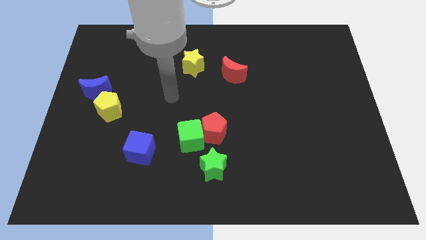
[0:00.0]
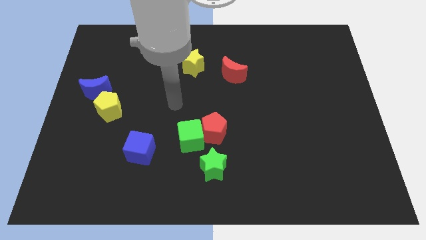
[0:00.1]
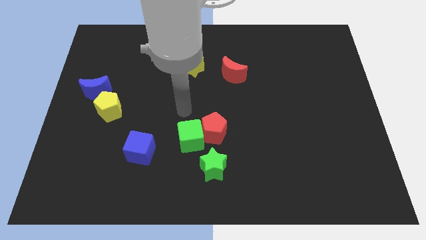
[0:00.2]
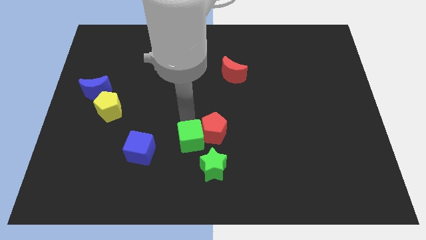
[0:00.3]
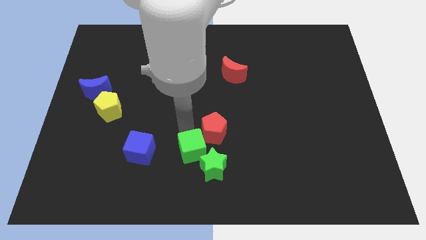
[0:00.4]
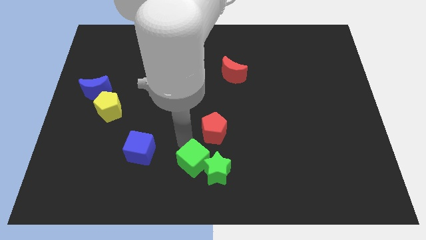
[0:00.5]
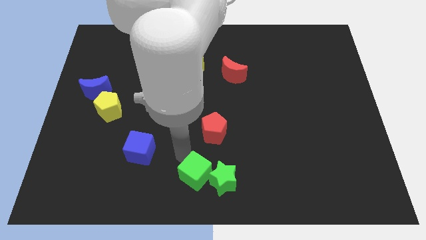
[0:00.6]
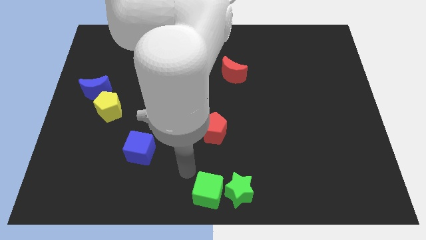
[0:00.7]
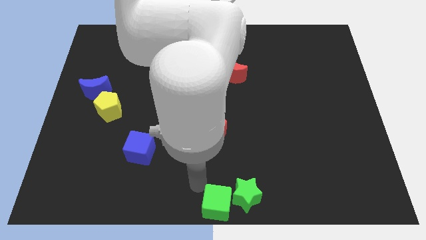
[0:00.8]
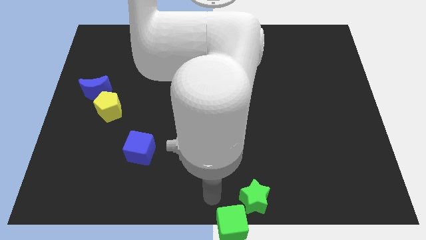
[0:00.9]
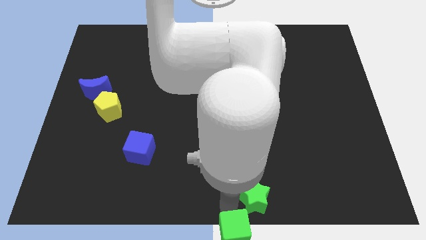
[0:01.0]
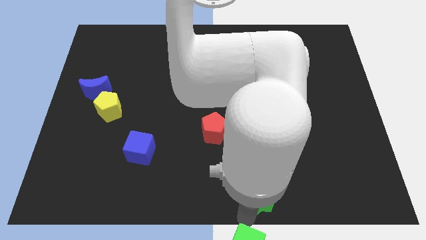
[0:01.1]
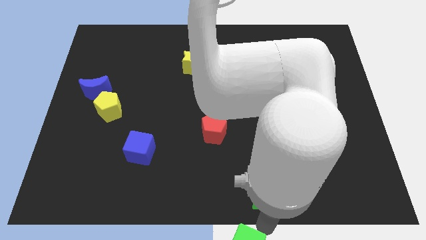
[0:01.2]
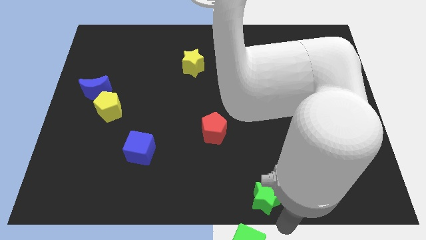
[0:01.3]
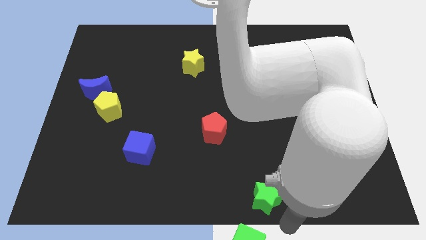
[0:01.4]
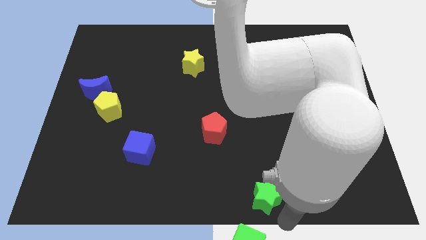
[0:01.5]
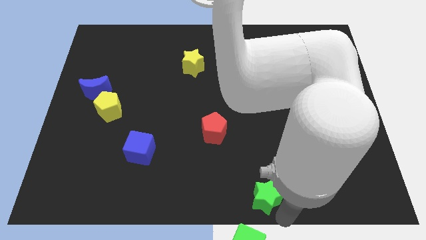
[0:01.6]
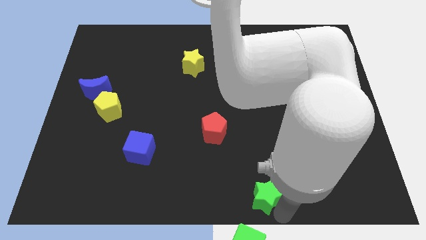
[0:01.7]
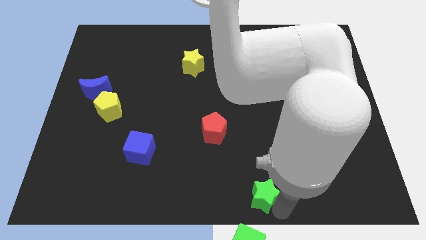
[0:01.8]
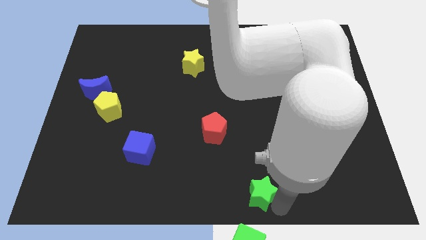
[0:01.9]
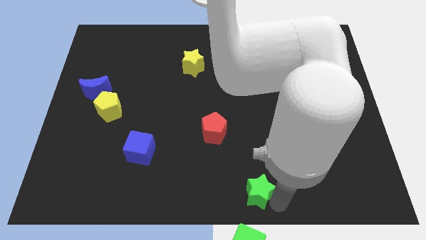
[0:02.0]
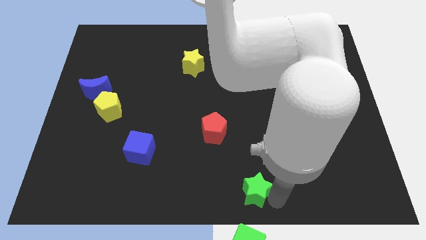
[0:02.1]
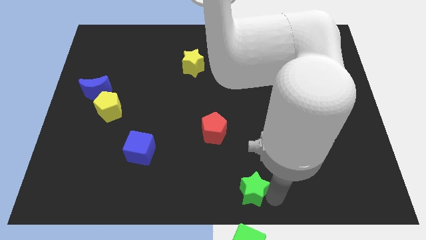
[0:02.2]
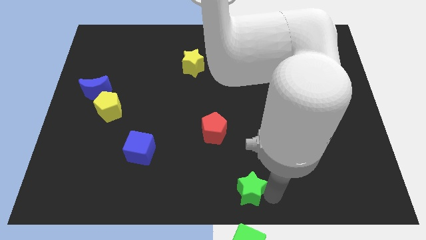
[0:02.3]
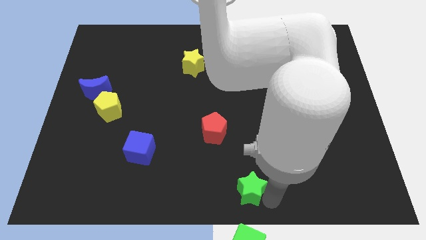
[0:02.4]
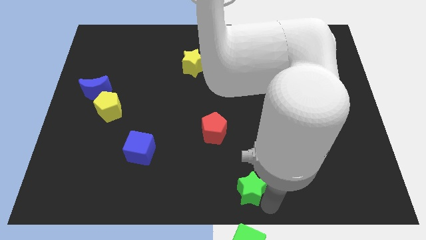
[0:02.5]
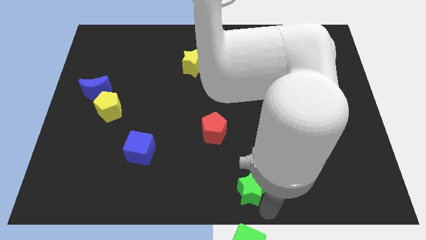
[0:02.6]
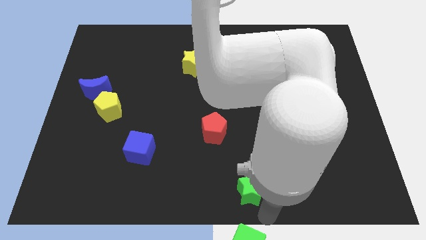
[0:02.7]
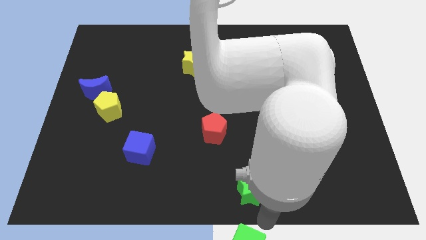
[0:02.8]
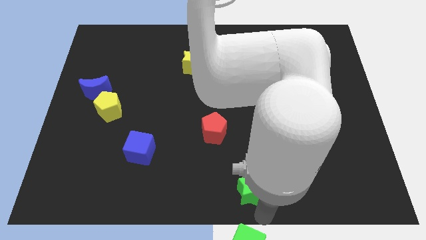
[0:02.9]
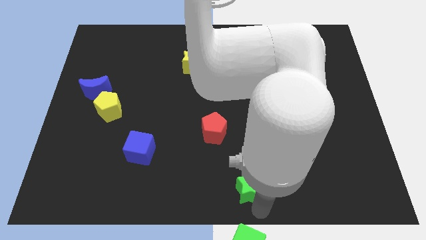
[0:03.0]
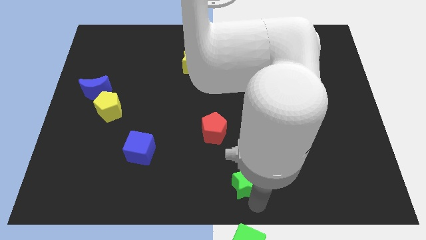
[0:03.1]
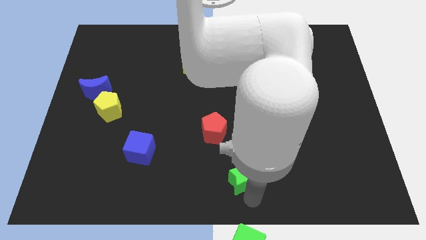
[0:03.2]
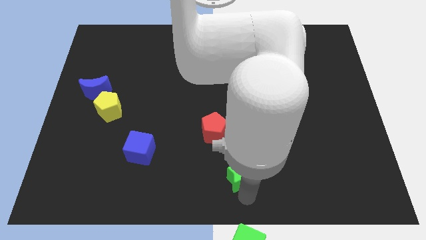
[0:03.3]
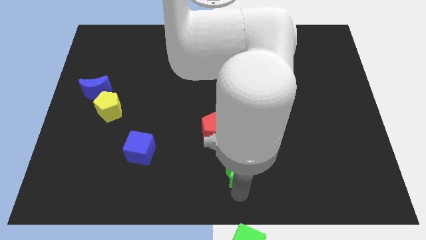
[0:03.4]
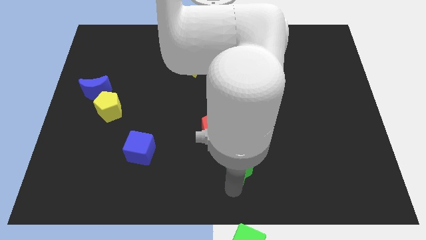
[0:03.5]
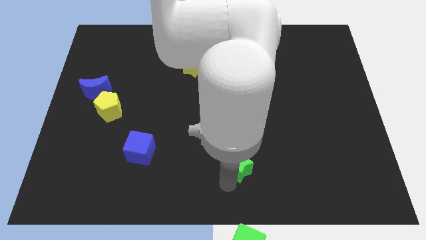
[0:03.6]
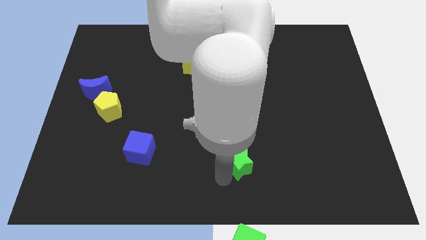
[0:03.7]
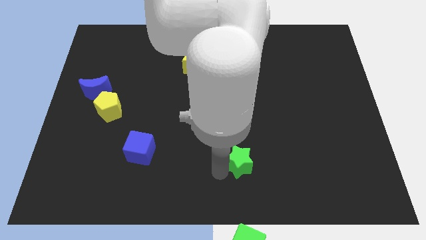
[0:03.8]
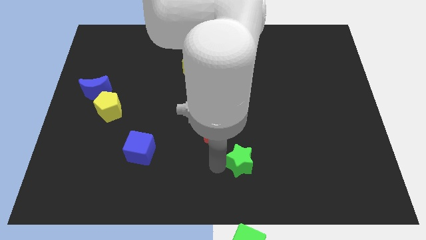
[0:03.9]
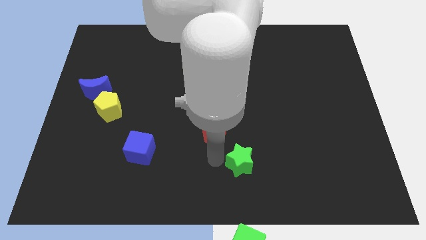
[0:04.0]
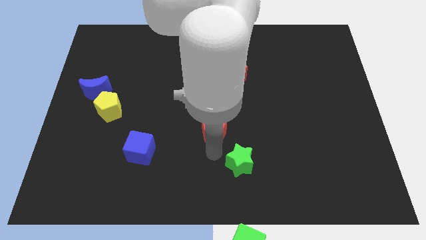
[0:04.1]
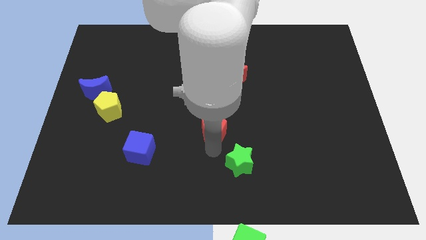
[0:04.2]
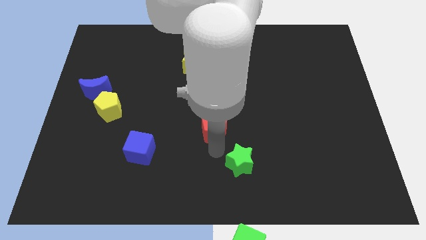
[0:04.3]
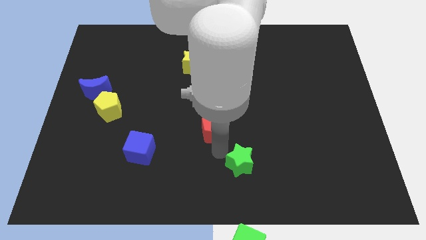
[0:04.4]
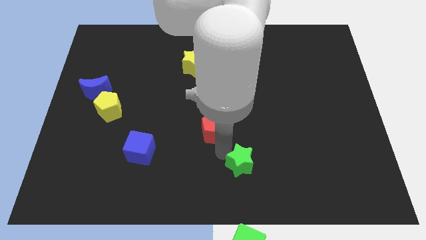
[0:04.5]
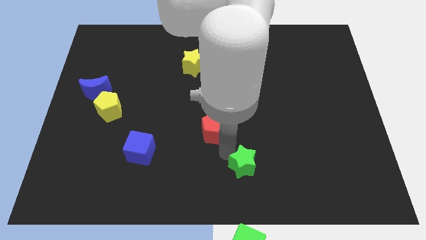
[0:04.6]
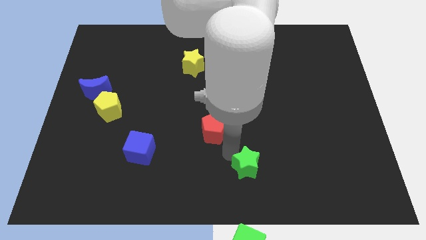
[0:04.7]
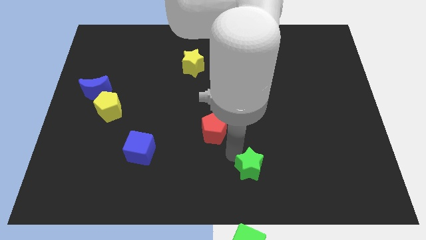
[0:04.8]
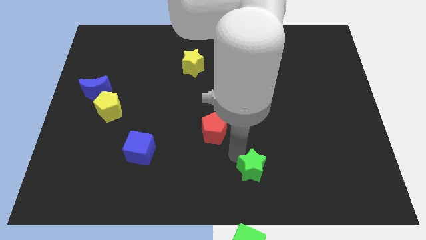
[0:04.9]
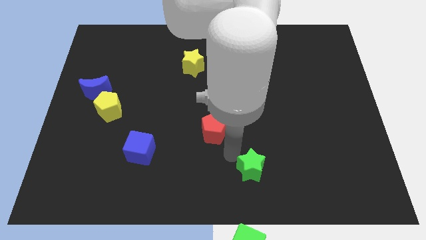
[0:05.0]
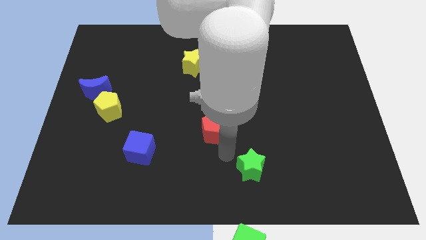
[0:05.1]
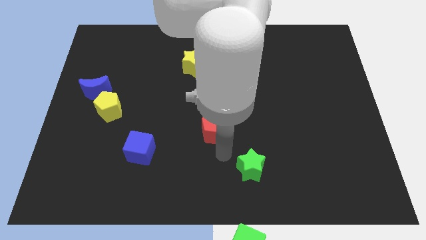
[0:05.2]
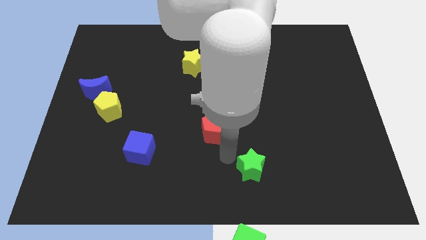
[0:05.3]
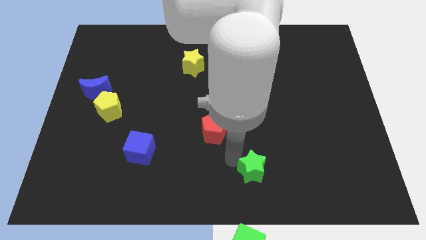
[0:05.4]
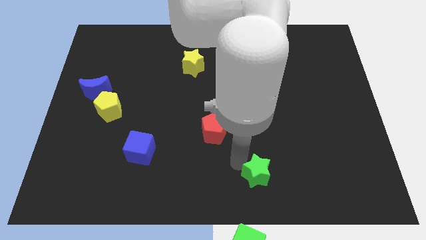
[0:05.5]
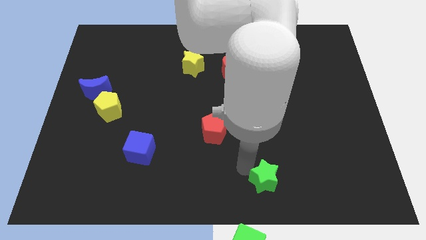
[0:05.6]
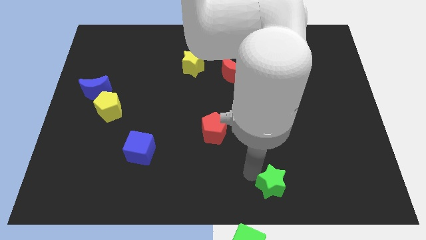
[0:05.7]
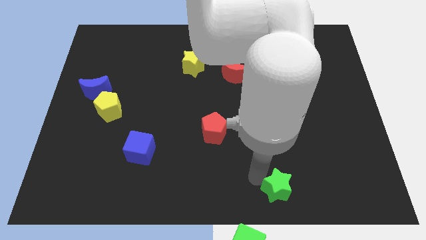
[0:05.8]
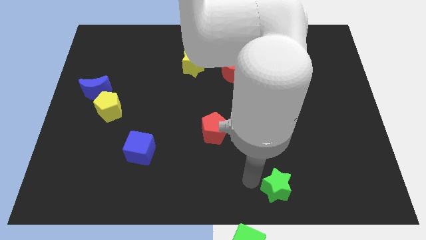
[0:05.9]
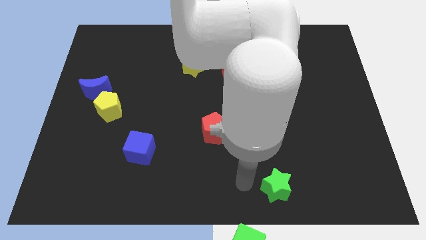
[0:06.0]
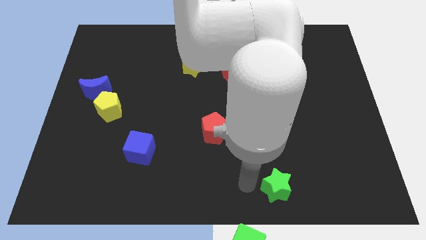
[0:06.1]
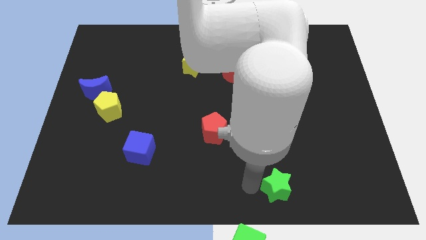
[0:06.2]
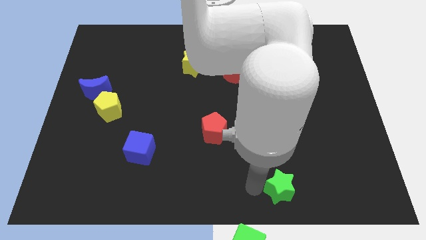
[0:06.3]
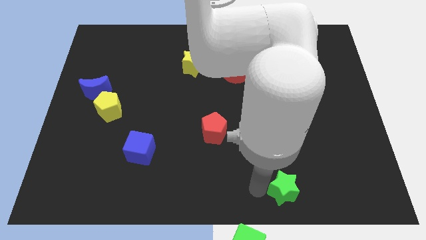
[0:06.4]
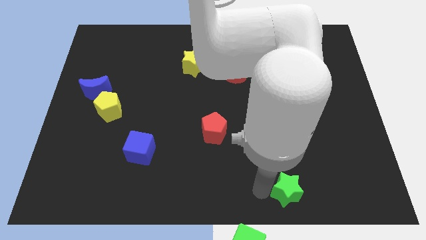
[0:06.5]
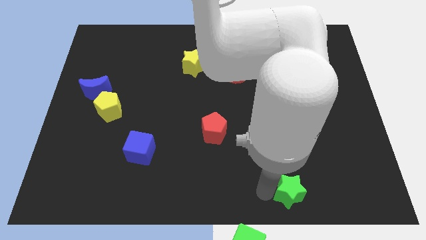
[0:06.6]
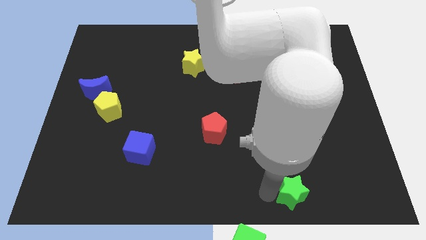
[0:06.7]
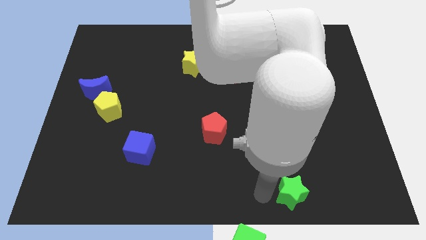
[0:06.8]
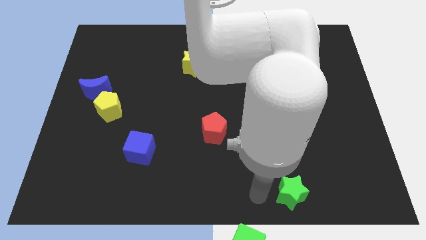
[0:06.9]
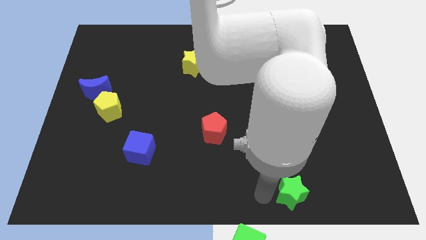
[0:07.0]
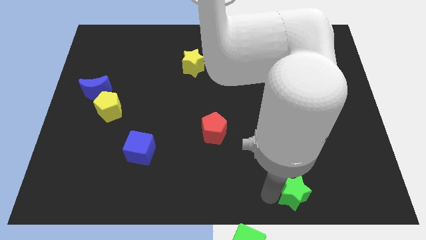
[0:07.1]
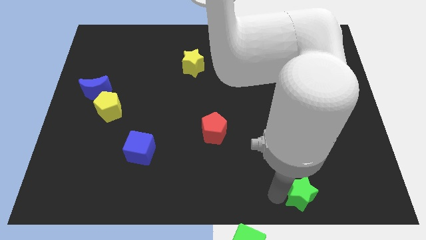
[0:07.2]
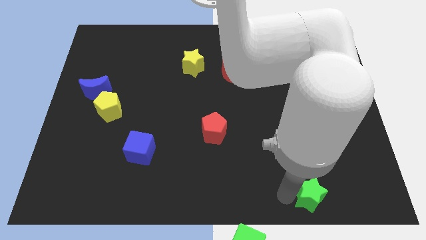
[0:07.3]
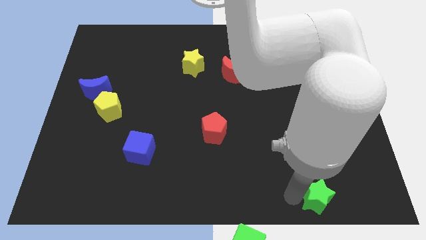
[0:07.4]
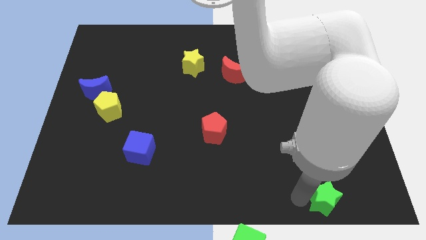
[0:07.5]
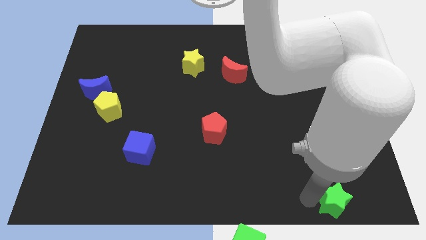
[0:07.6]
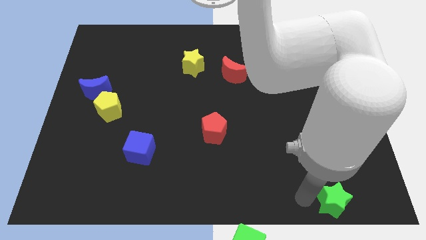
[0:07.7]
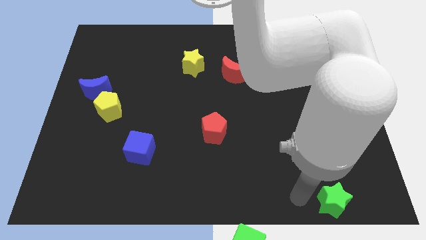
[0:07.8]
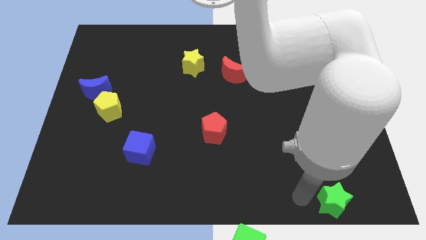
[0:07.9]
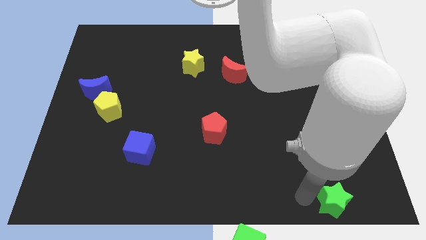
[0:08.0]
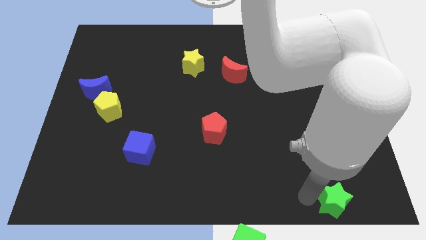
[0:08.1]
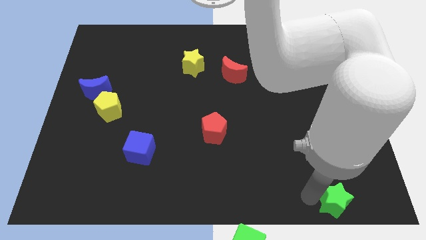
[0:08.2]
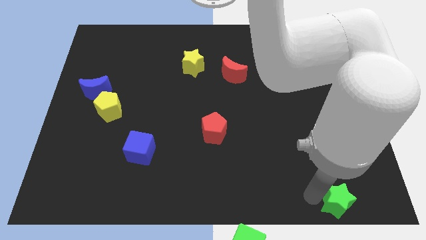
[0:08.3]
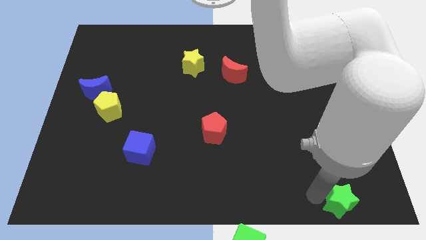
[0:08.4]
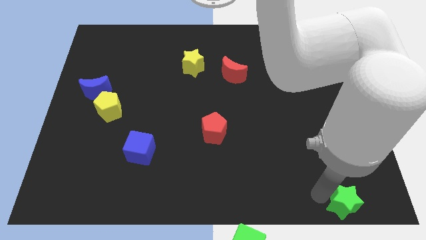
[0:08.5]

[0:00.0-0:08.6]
slide the green star to the bottom right of the board
